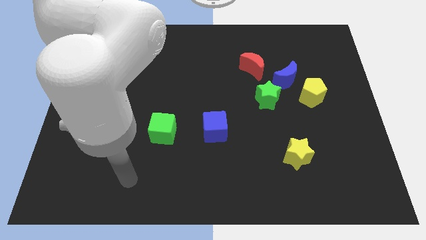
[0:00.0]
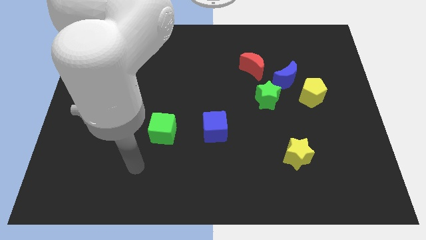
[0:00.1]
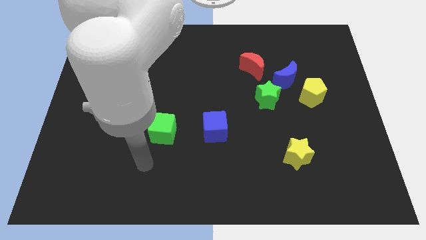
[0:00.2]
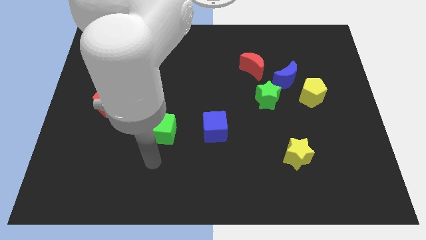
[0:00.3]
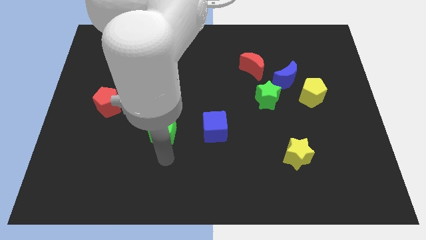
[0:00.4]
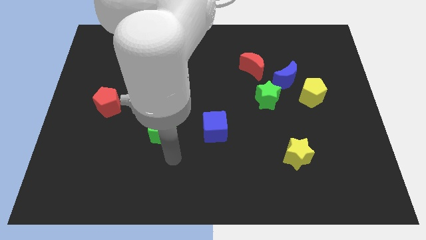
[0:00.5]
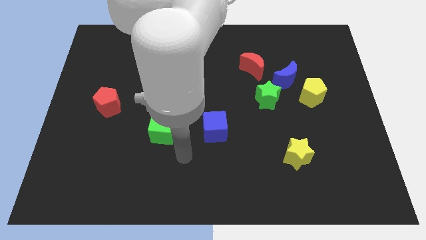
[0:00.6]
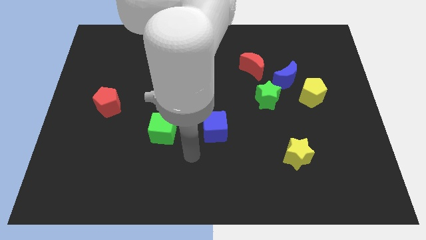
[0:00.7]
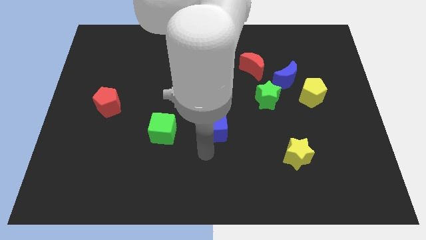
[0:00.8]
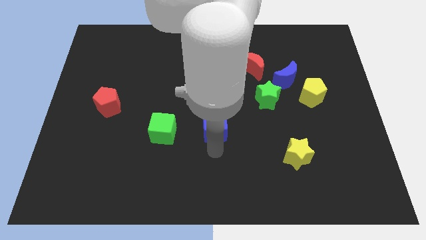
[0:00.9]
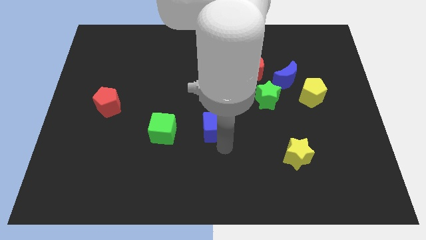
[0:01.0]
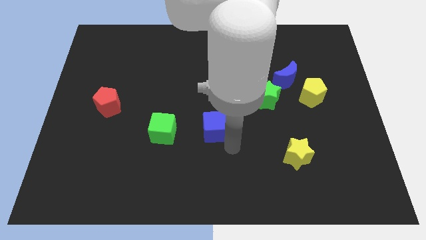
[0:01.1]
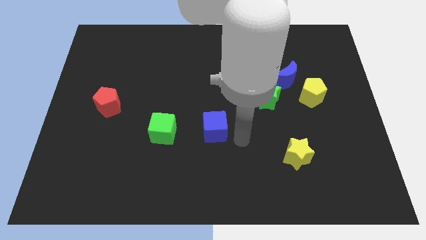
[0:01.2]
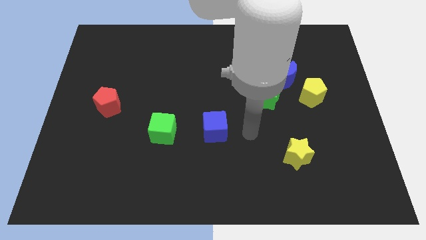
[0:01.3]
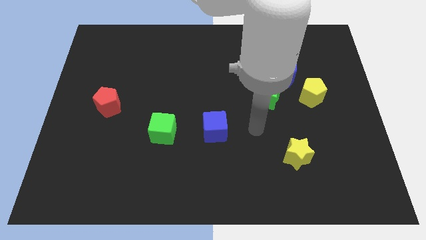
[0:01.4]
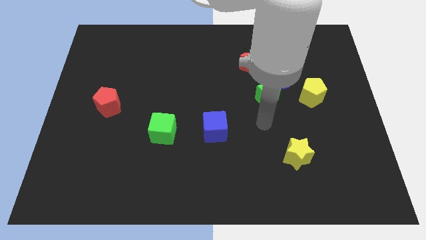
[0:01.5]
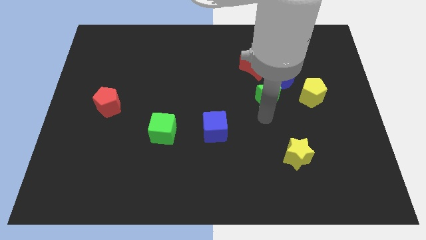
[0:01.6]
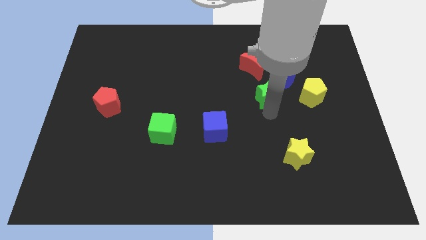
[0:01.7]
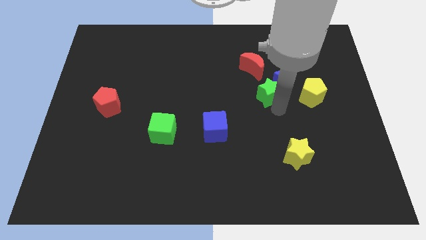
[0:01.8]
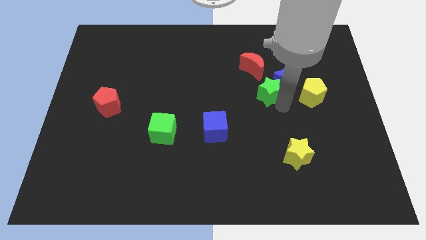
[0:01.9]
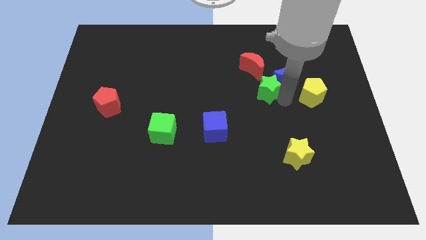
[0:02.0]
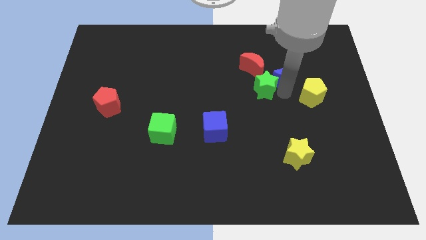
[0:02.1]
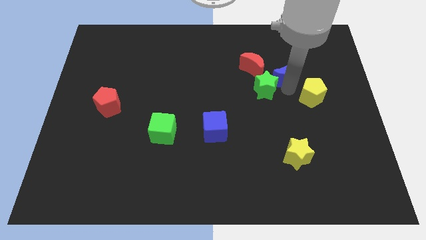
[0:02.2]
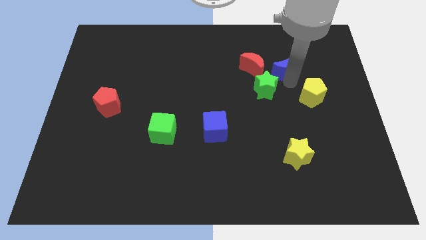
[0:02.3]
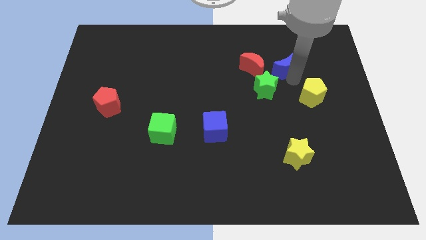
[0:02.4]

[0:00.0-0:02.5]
separate the yellow pentagon from the blue moon

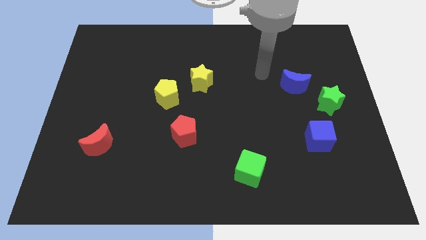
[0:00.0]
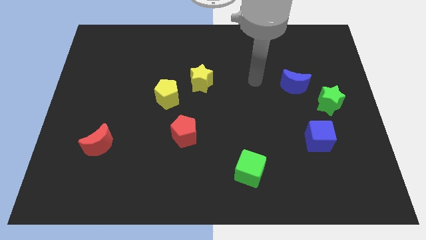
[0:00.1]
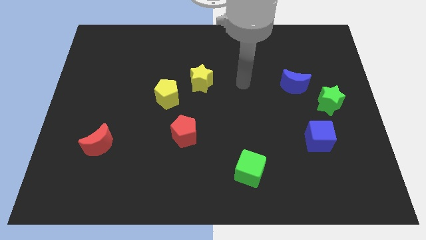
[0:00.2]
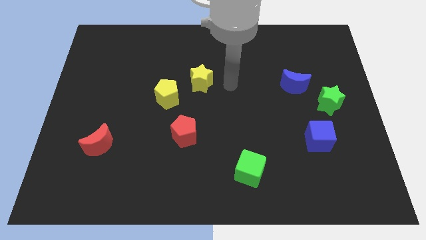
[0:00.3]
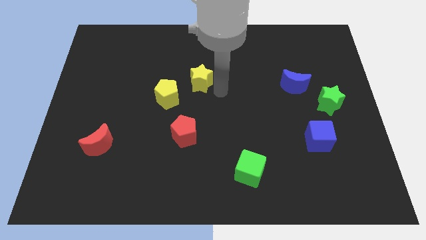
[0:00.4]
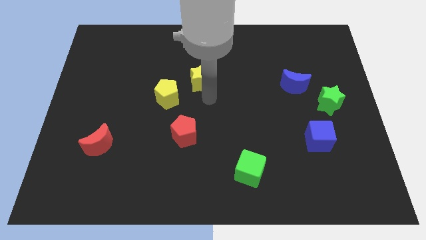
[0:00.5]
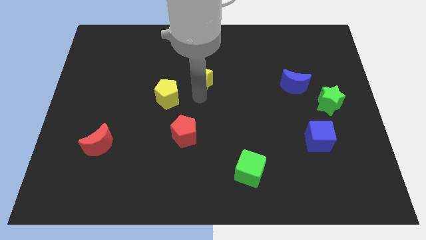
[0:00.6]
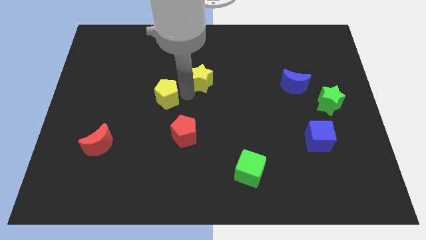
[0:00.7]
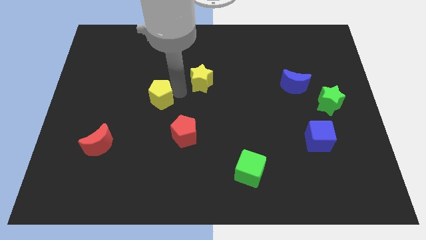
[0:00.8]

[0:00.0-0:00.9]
move the yellow star away from the yellow pentagon

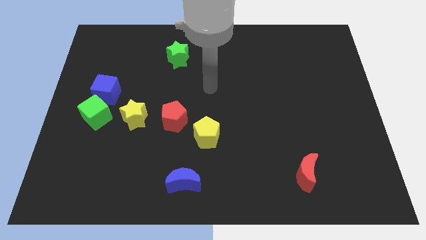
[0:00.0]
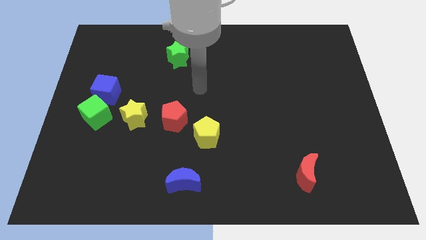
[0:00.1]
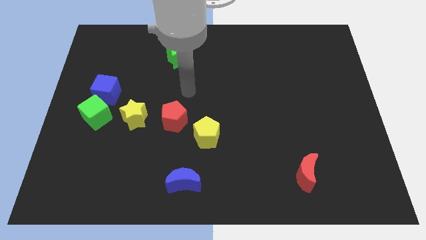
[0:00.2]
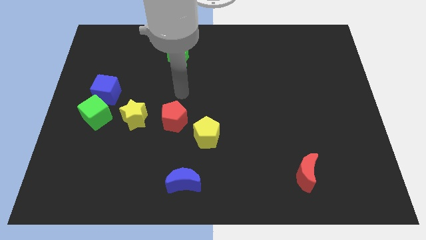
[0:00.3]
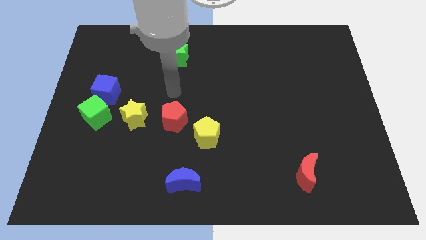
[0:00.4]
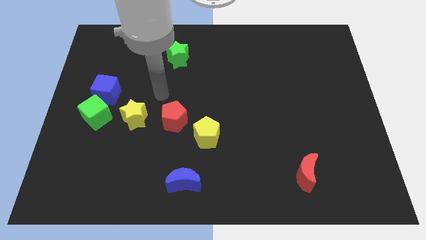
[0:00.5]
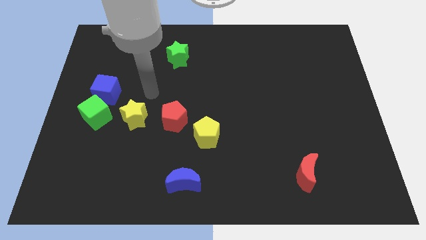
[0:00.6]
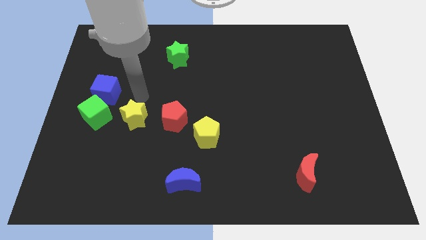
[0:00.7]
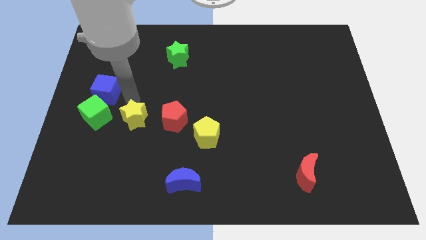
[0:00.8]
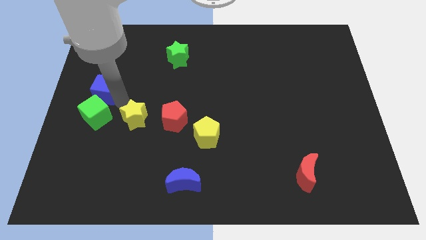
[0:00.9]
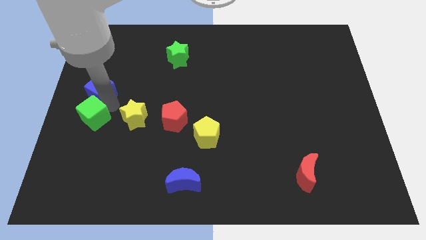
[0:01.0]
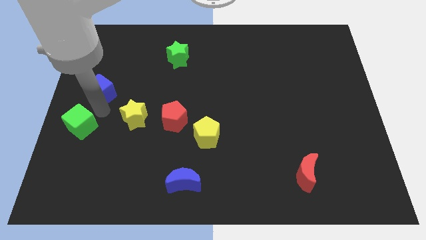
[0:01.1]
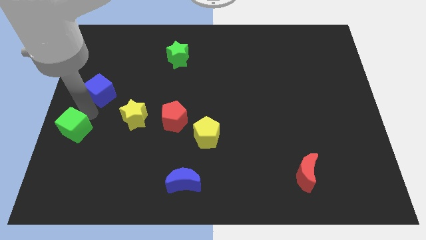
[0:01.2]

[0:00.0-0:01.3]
pull the blue cube apart from the green cube

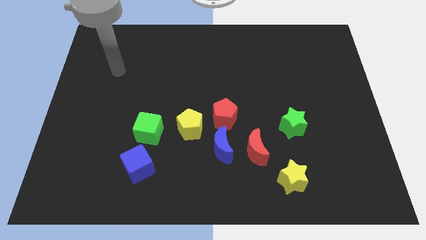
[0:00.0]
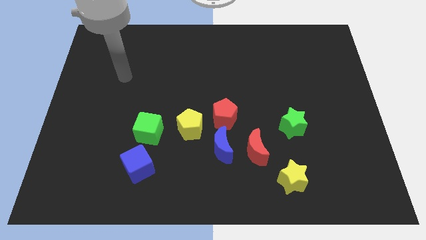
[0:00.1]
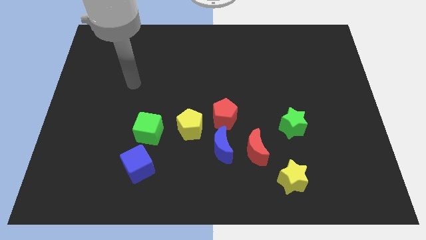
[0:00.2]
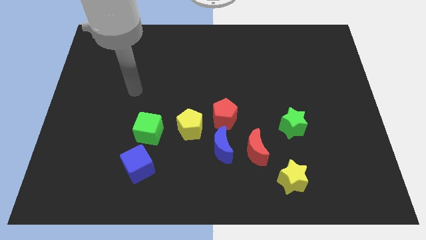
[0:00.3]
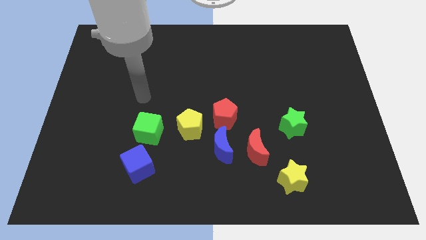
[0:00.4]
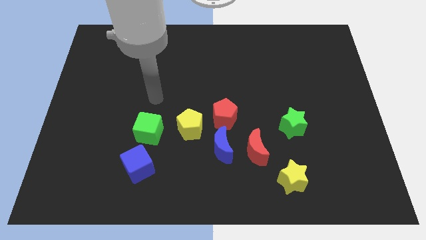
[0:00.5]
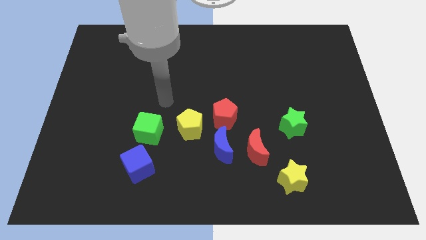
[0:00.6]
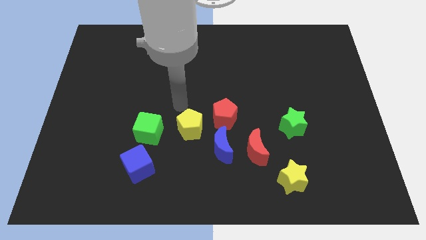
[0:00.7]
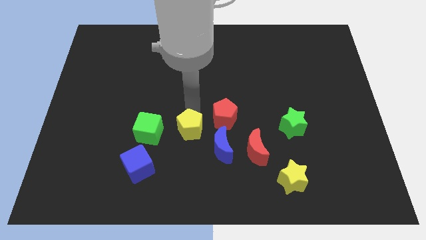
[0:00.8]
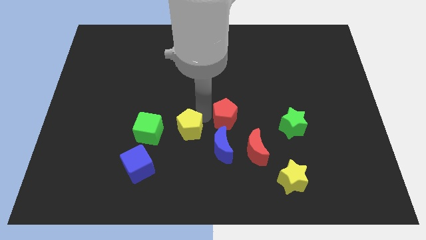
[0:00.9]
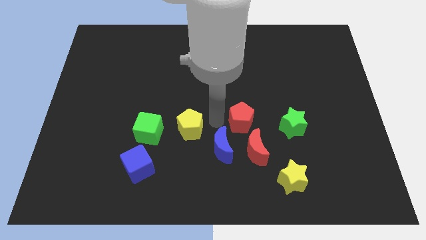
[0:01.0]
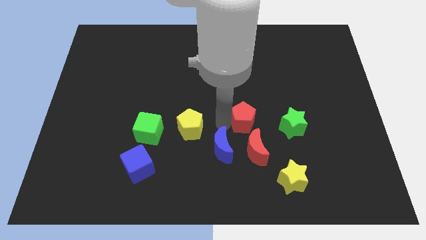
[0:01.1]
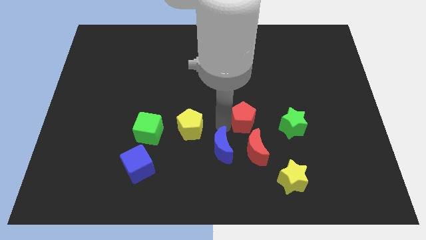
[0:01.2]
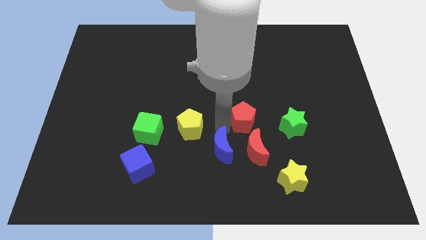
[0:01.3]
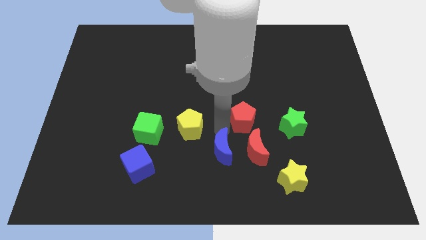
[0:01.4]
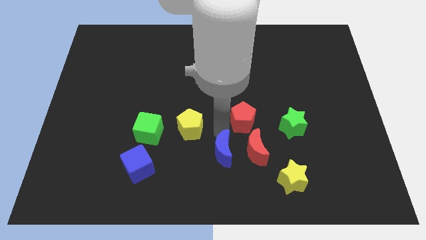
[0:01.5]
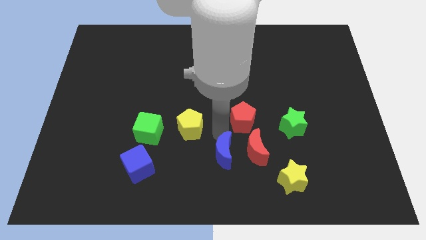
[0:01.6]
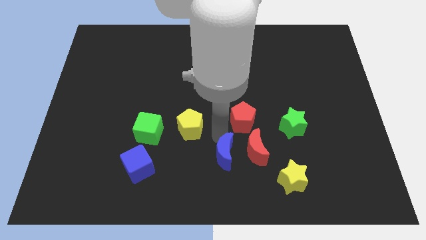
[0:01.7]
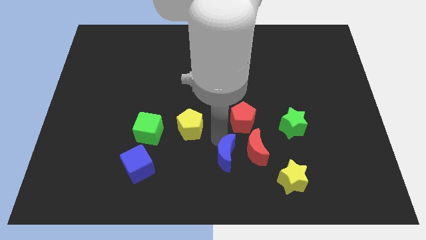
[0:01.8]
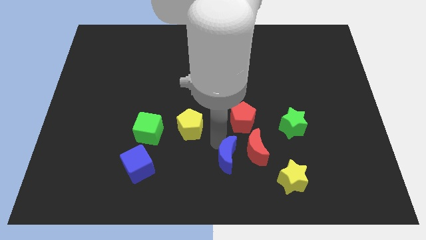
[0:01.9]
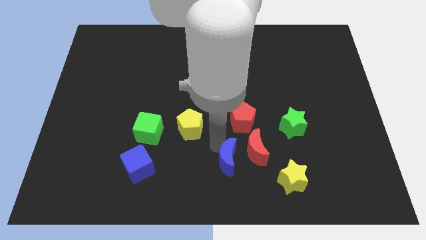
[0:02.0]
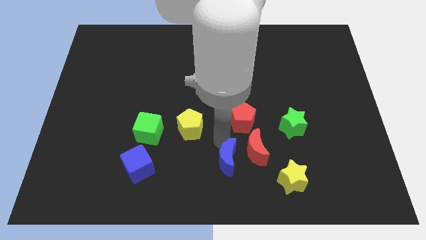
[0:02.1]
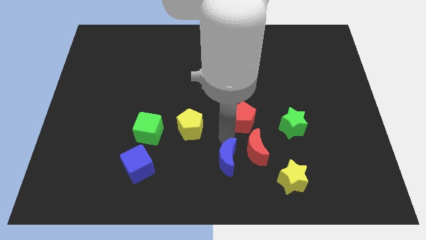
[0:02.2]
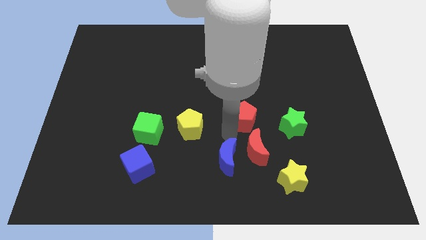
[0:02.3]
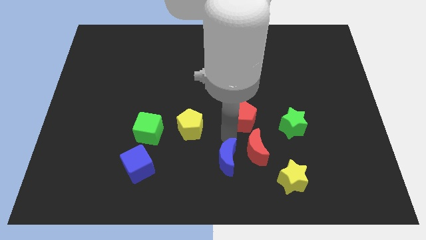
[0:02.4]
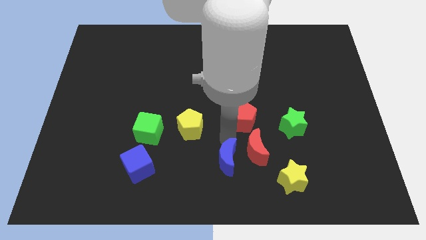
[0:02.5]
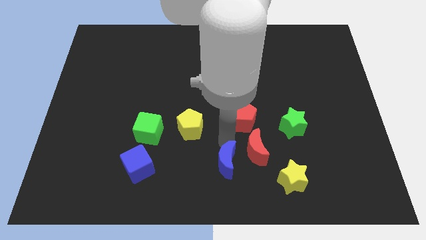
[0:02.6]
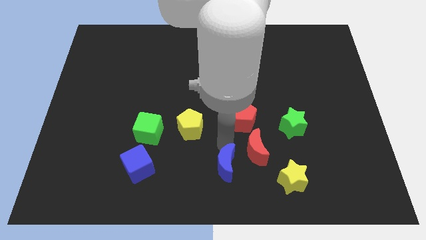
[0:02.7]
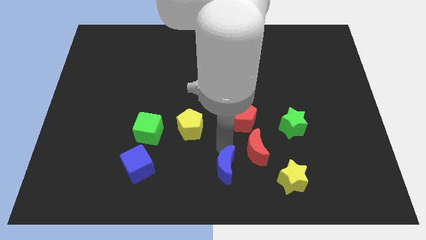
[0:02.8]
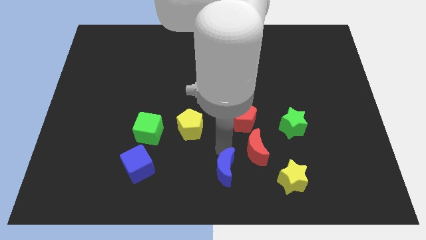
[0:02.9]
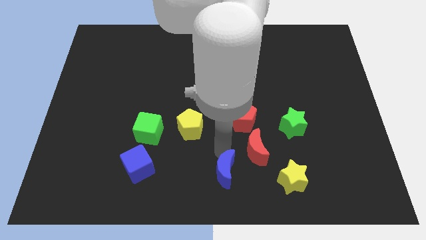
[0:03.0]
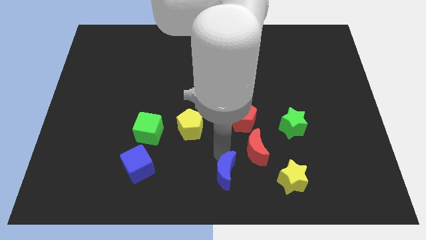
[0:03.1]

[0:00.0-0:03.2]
pull the blue moon apart from the group of blocks

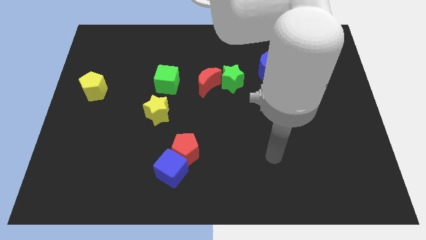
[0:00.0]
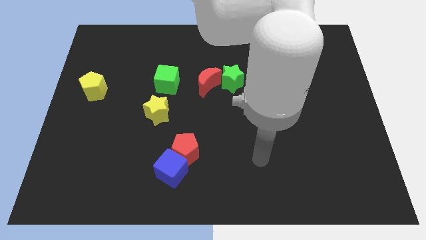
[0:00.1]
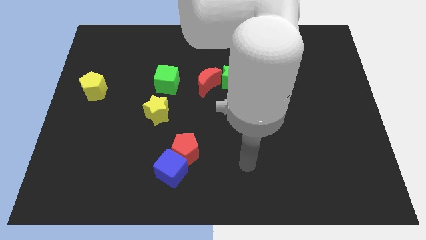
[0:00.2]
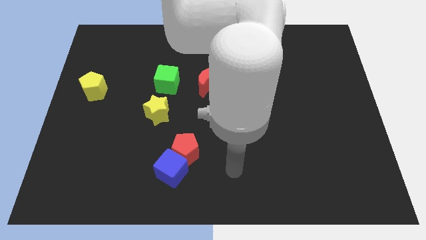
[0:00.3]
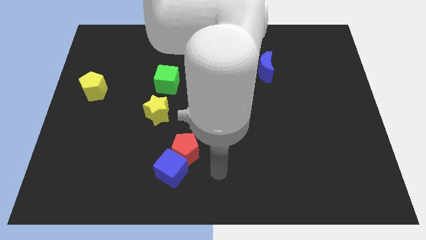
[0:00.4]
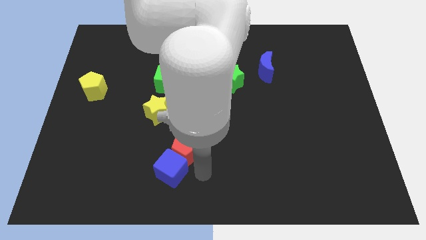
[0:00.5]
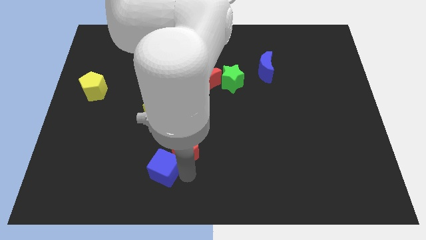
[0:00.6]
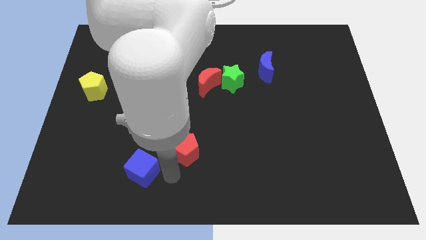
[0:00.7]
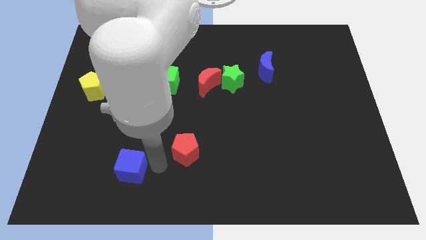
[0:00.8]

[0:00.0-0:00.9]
pull the red pentagon apart from the blue cube

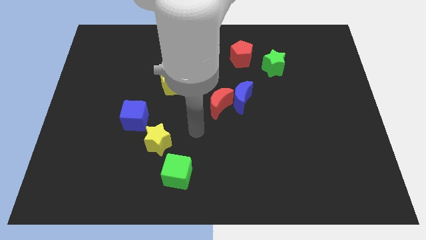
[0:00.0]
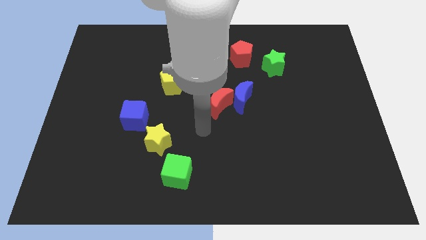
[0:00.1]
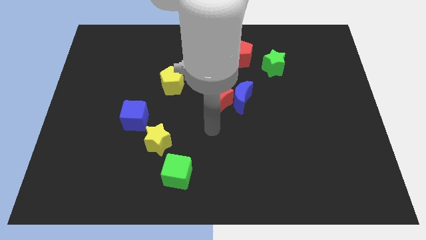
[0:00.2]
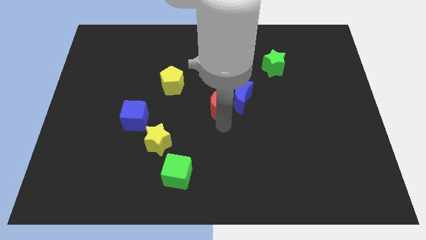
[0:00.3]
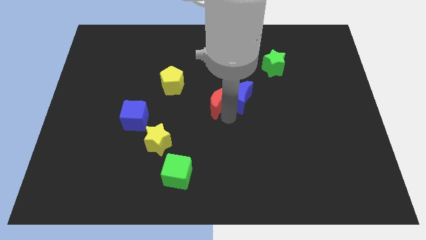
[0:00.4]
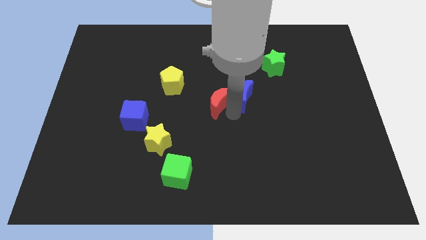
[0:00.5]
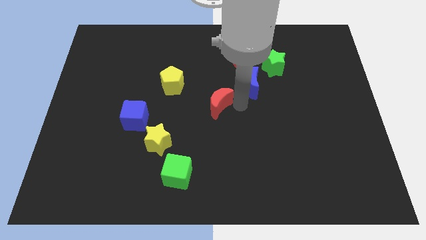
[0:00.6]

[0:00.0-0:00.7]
move the red moon away from the blue moon
